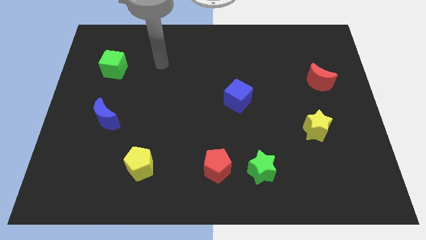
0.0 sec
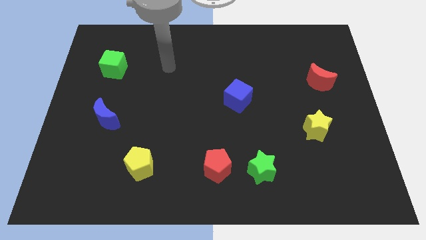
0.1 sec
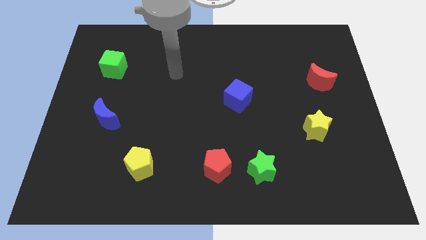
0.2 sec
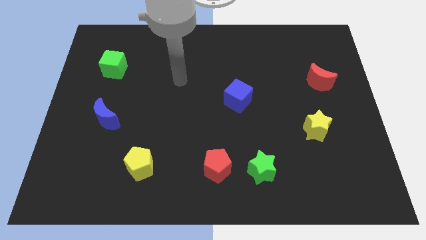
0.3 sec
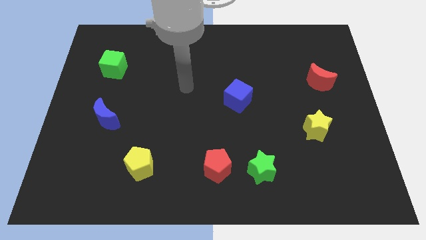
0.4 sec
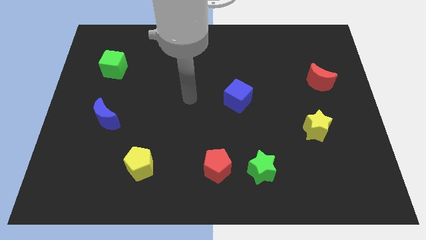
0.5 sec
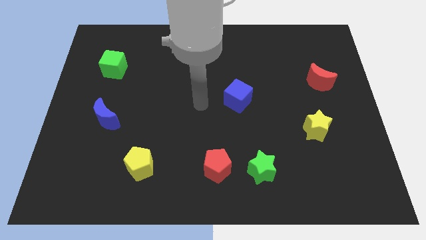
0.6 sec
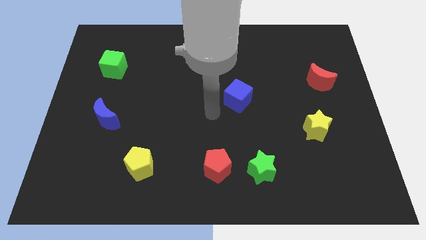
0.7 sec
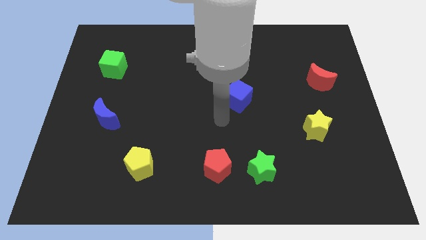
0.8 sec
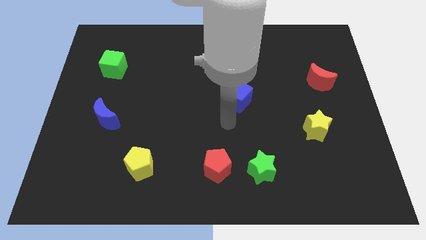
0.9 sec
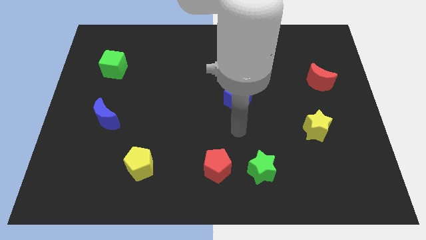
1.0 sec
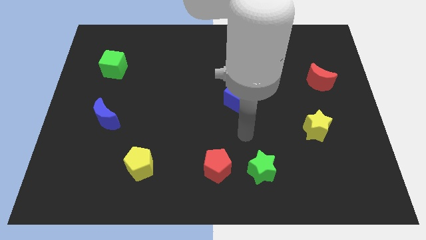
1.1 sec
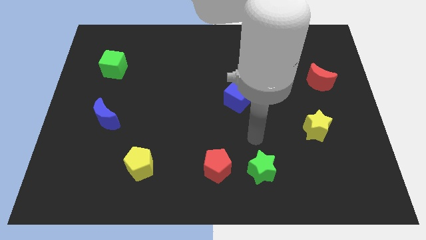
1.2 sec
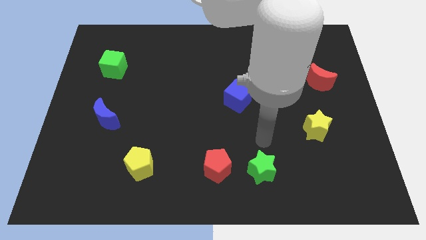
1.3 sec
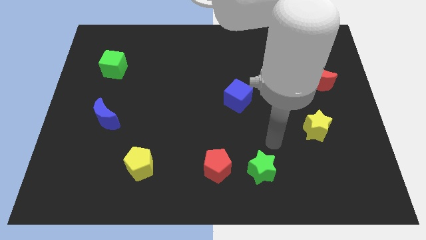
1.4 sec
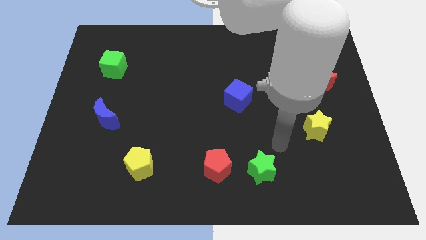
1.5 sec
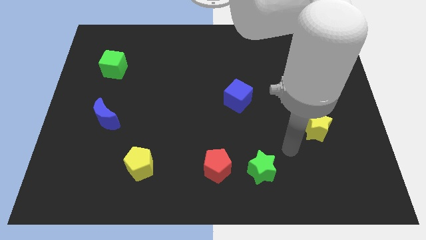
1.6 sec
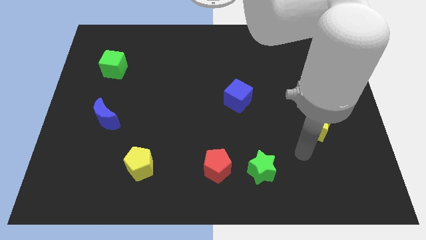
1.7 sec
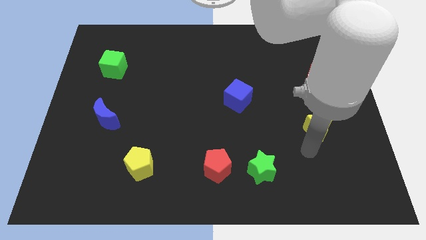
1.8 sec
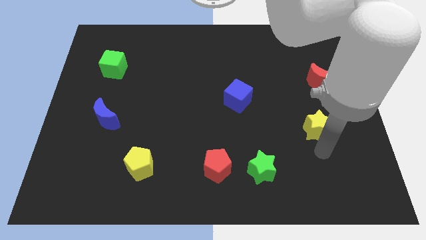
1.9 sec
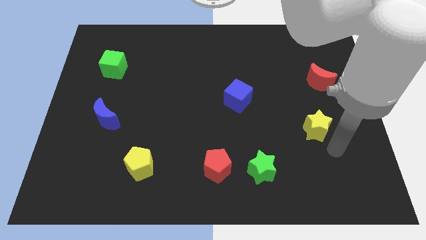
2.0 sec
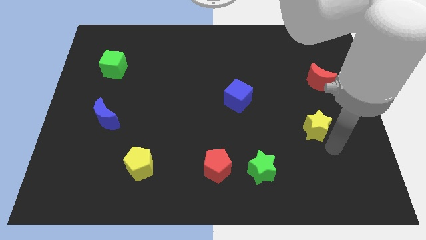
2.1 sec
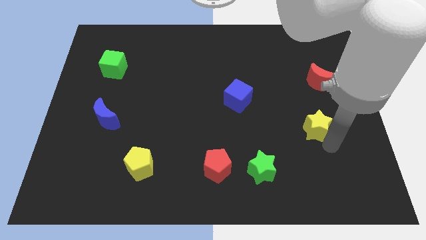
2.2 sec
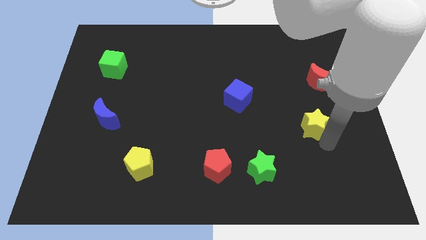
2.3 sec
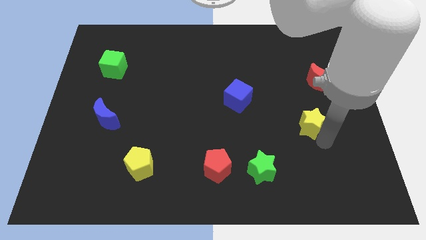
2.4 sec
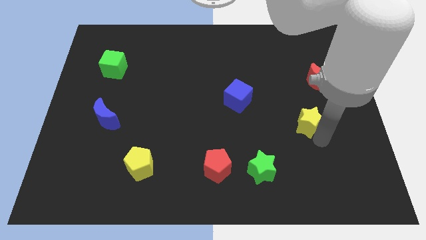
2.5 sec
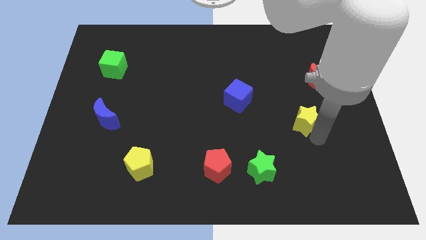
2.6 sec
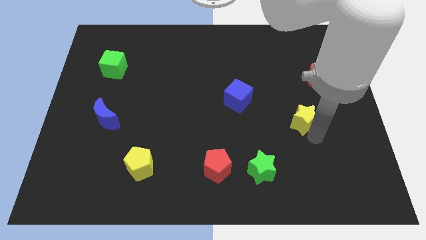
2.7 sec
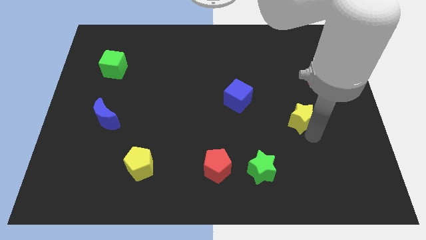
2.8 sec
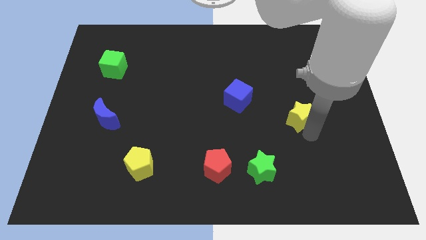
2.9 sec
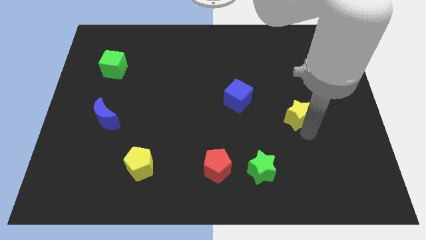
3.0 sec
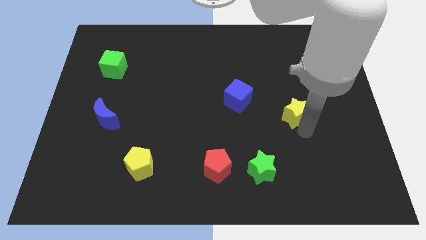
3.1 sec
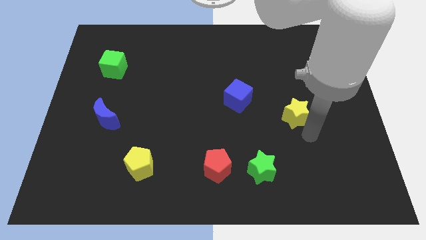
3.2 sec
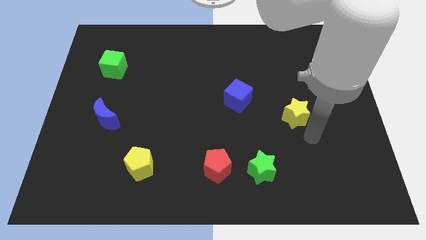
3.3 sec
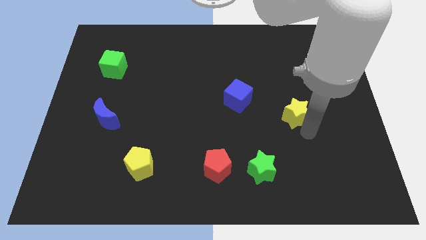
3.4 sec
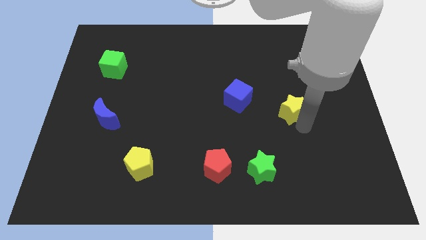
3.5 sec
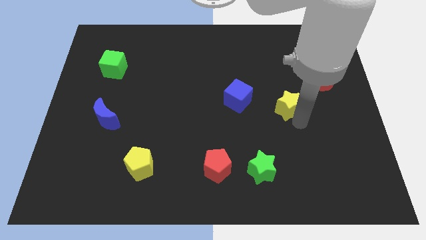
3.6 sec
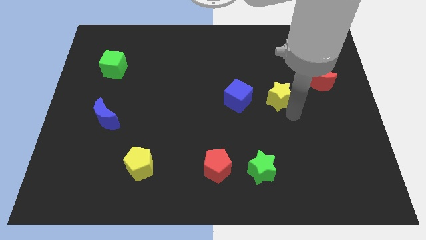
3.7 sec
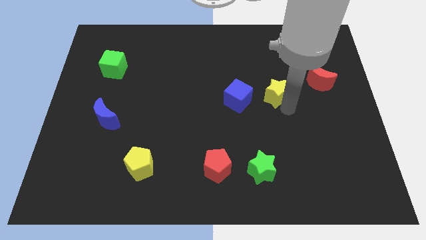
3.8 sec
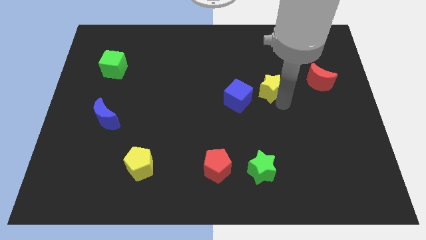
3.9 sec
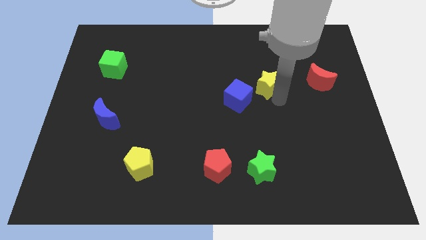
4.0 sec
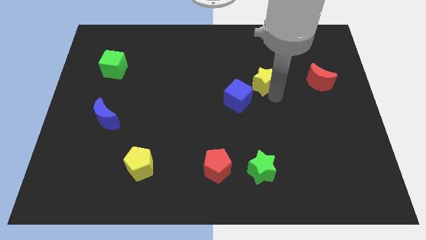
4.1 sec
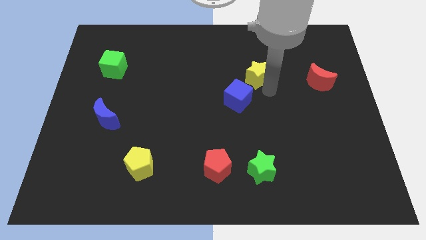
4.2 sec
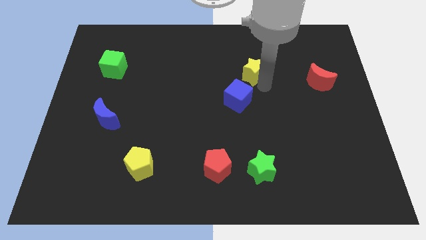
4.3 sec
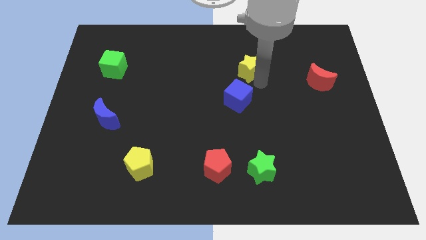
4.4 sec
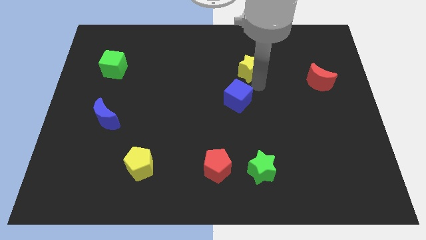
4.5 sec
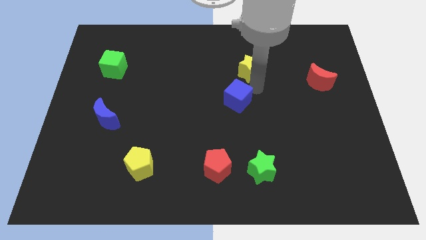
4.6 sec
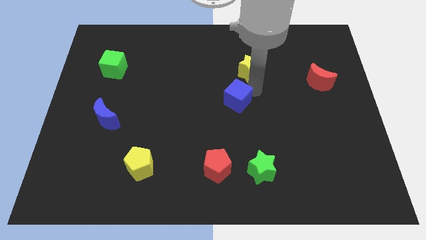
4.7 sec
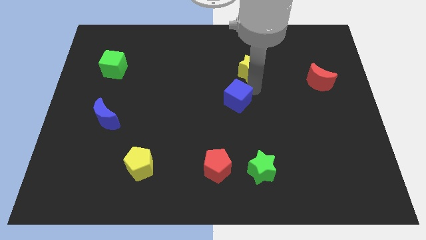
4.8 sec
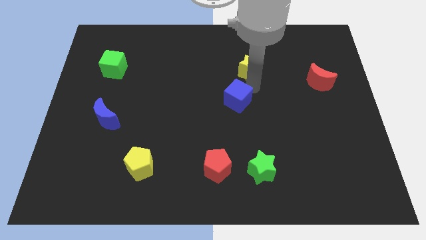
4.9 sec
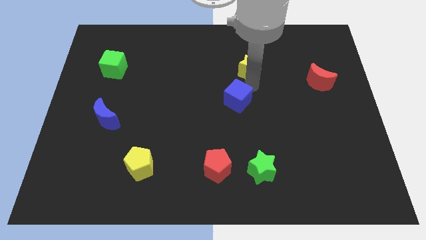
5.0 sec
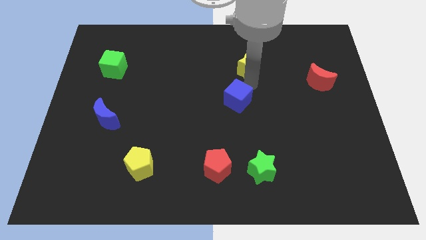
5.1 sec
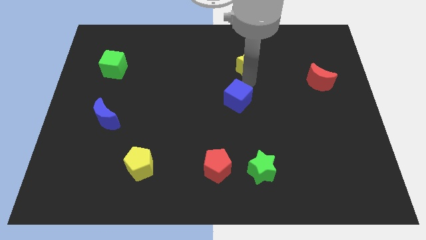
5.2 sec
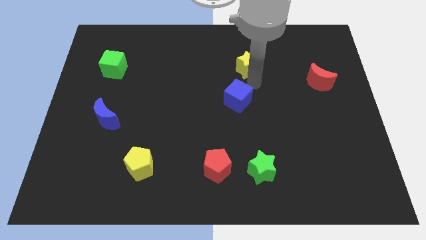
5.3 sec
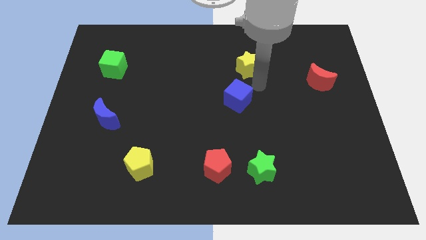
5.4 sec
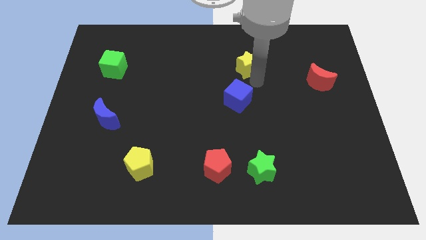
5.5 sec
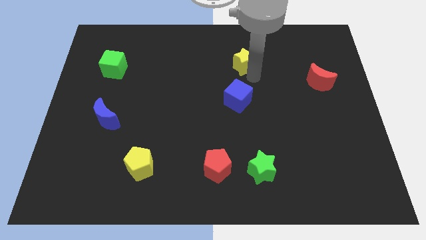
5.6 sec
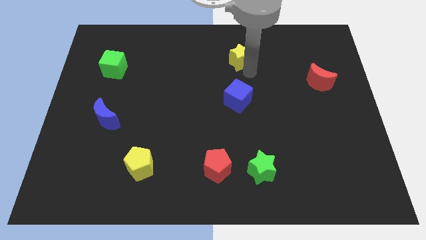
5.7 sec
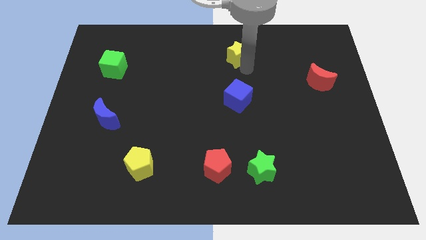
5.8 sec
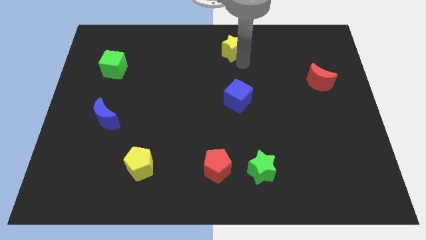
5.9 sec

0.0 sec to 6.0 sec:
move the yellow star to the top

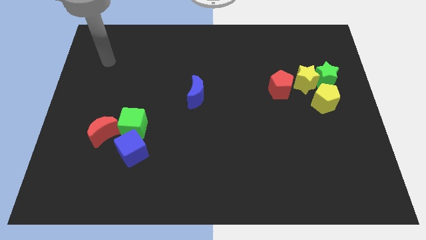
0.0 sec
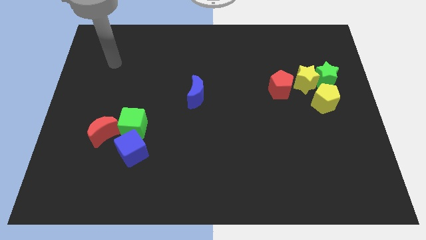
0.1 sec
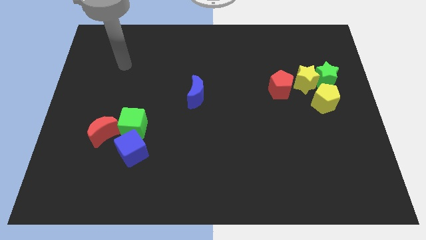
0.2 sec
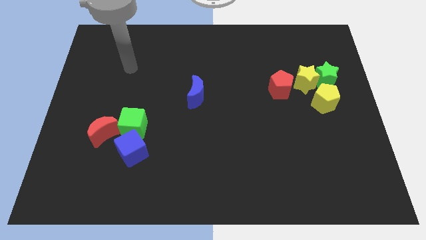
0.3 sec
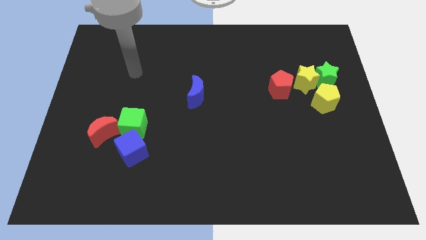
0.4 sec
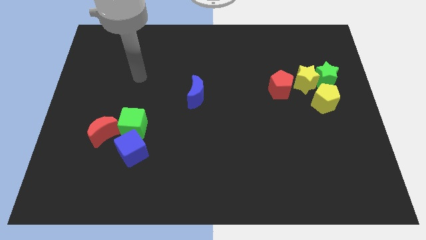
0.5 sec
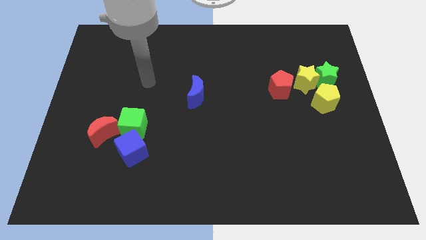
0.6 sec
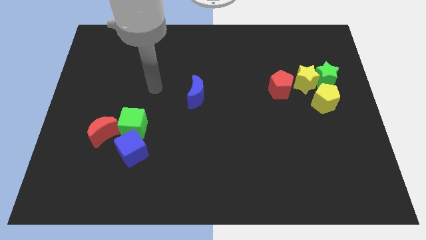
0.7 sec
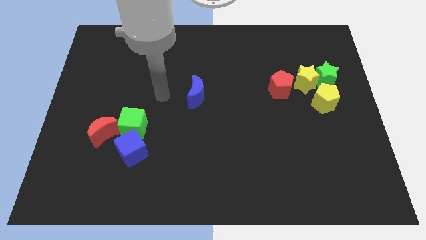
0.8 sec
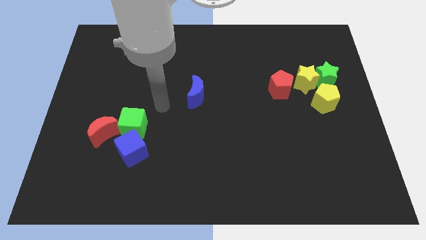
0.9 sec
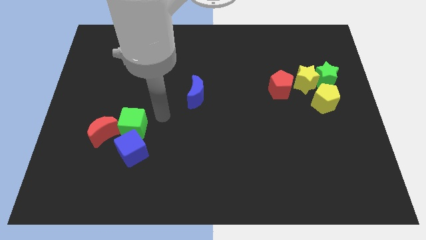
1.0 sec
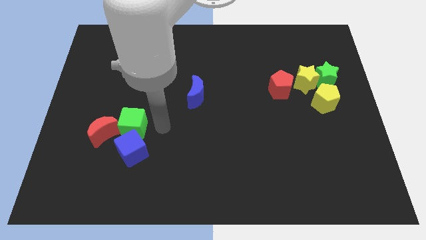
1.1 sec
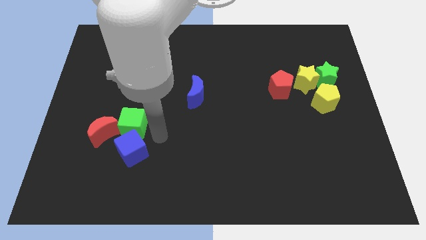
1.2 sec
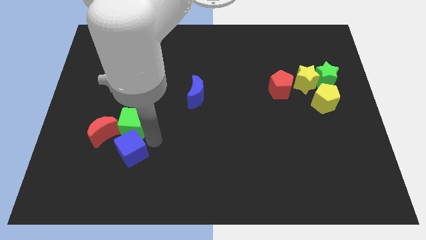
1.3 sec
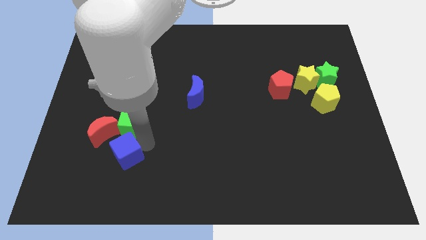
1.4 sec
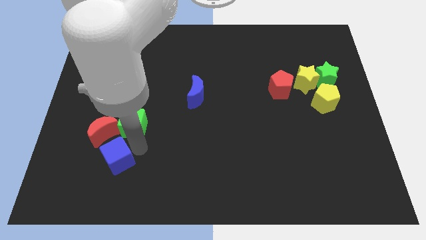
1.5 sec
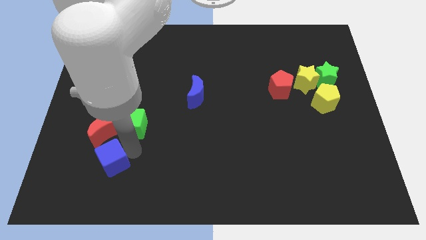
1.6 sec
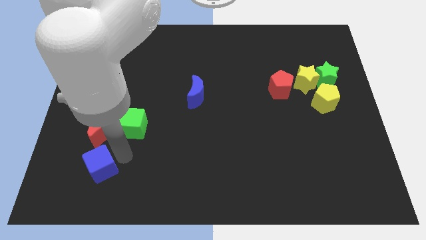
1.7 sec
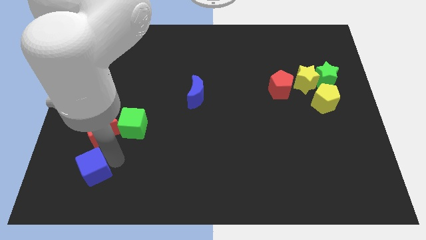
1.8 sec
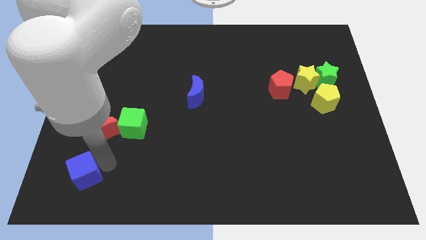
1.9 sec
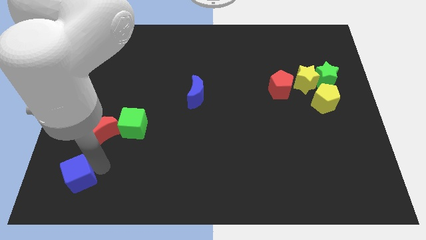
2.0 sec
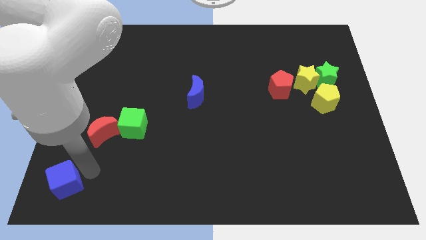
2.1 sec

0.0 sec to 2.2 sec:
put the blue cube to the bottom left
